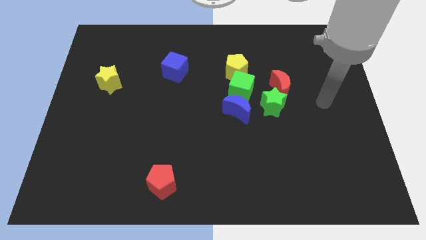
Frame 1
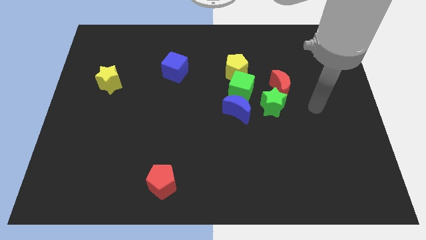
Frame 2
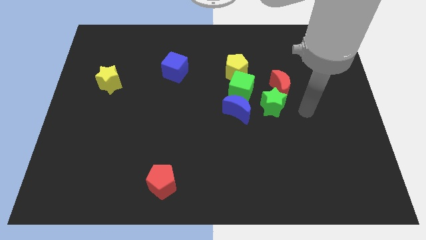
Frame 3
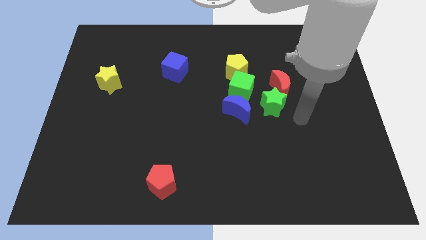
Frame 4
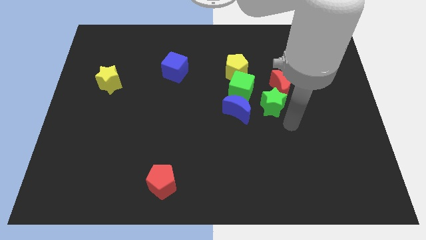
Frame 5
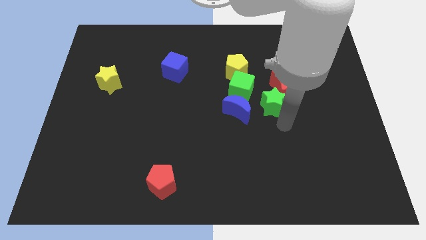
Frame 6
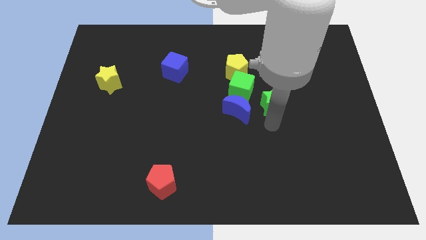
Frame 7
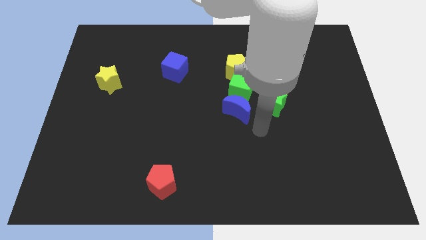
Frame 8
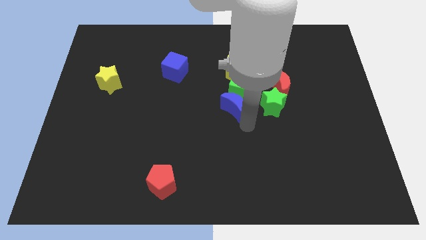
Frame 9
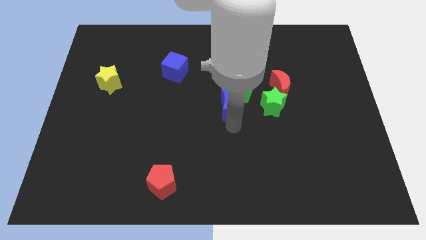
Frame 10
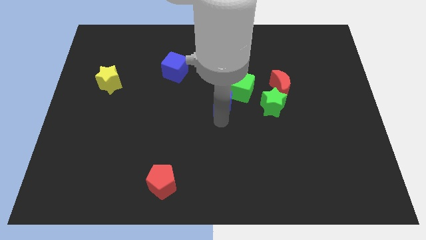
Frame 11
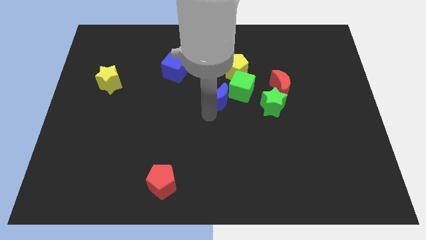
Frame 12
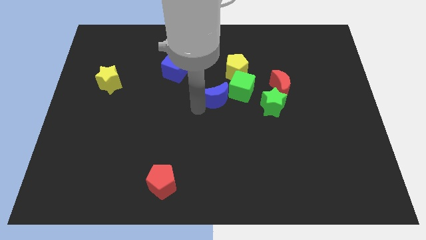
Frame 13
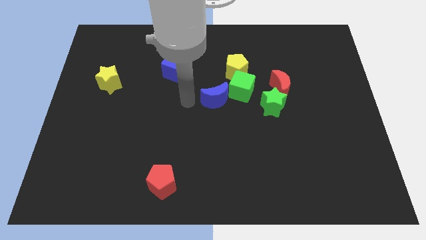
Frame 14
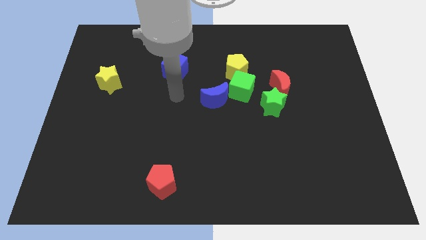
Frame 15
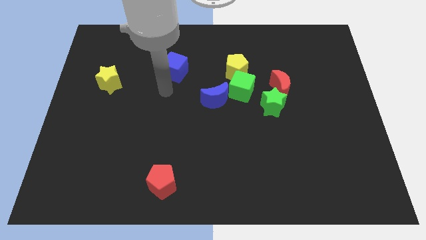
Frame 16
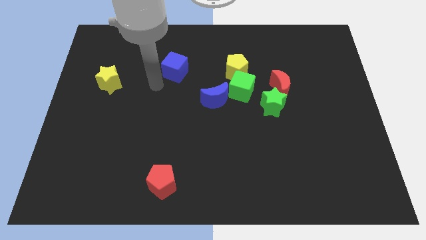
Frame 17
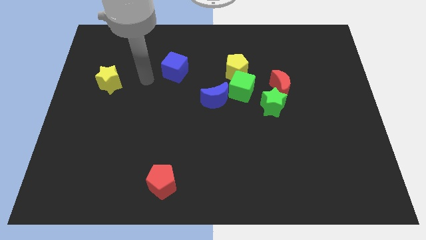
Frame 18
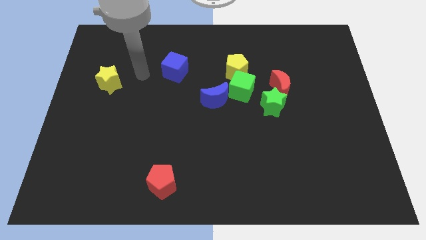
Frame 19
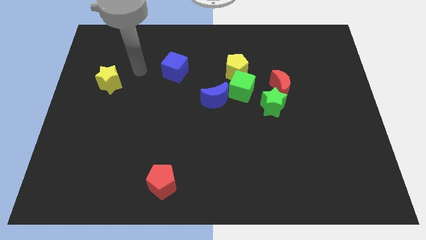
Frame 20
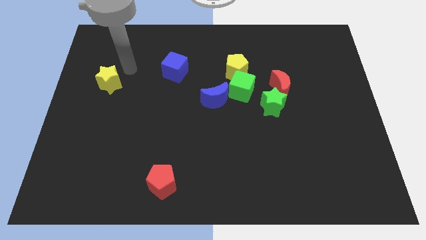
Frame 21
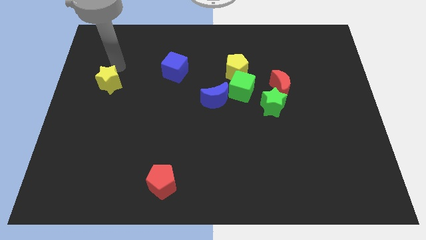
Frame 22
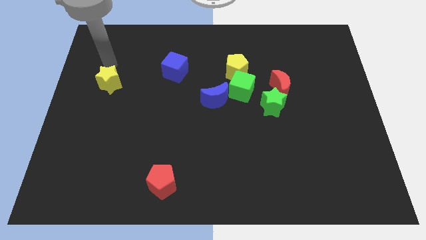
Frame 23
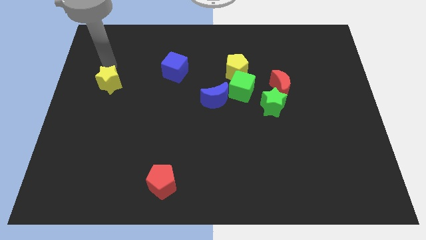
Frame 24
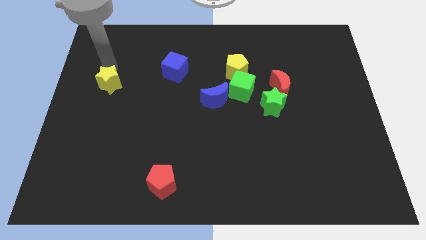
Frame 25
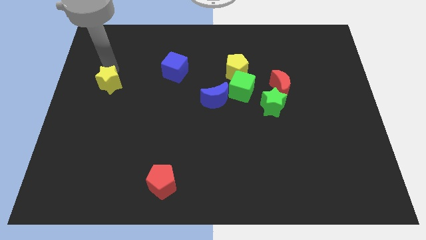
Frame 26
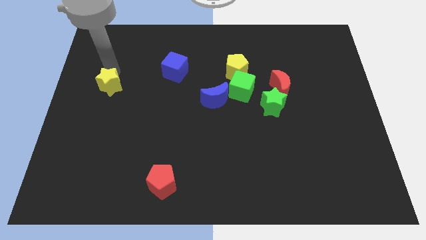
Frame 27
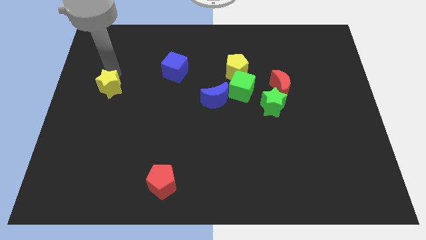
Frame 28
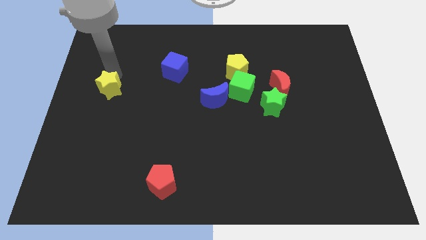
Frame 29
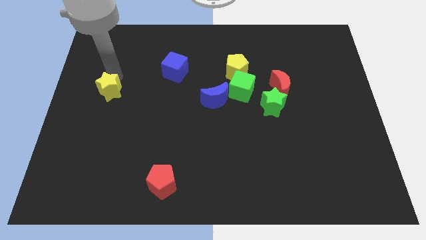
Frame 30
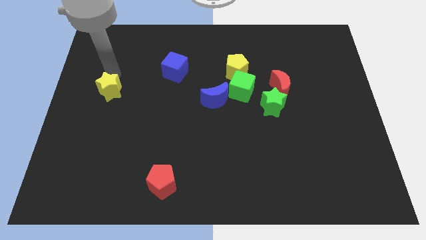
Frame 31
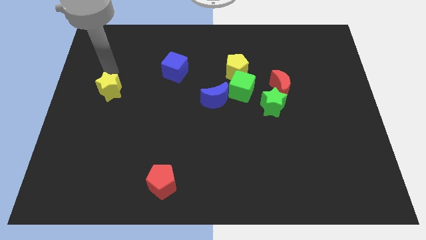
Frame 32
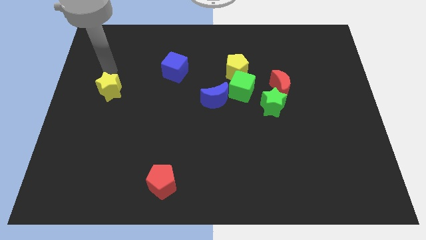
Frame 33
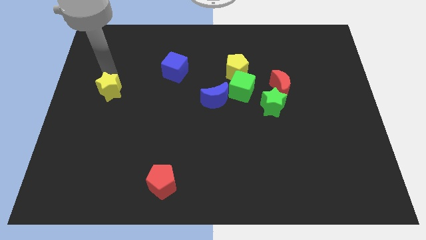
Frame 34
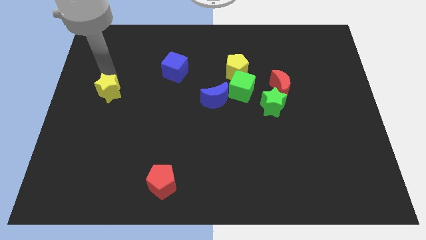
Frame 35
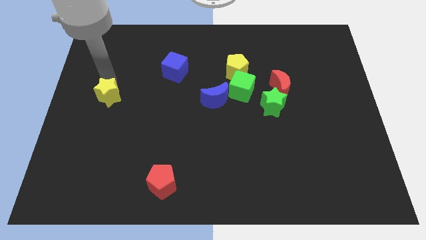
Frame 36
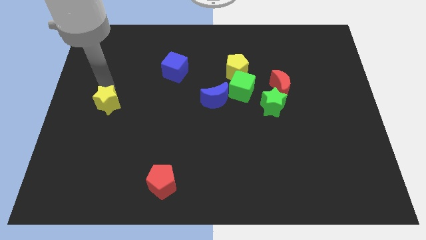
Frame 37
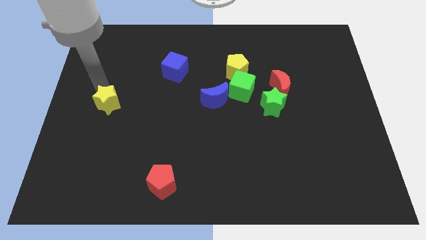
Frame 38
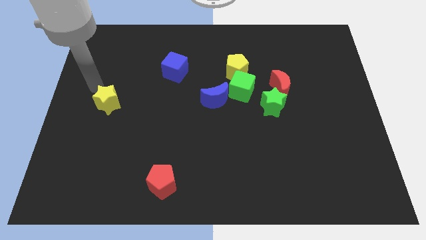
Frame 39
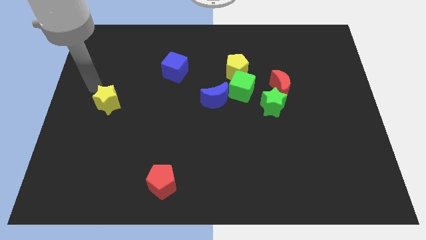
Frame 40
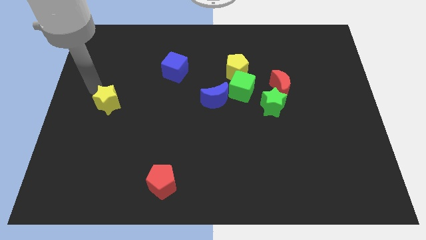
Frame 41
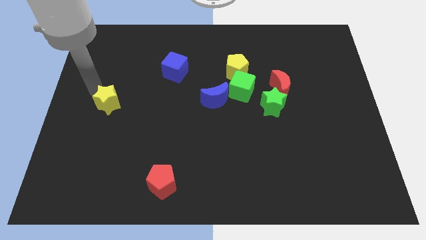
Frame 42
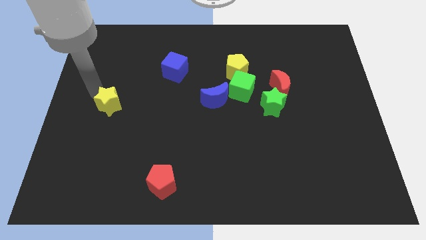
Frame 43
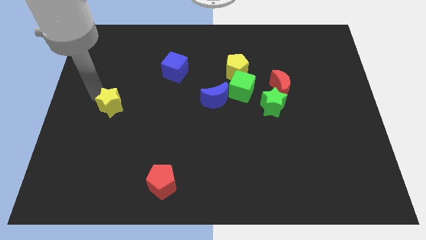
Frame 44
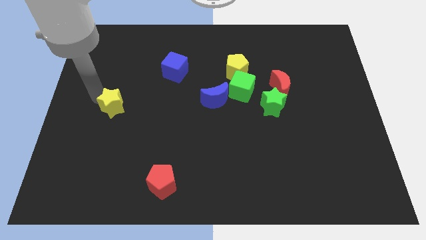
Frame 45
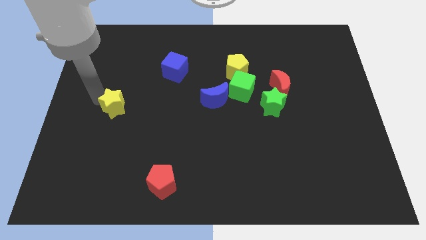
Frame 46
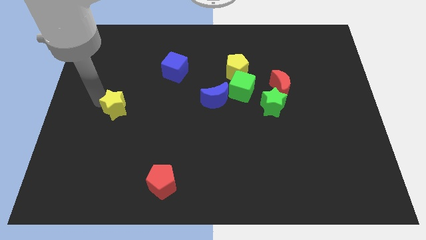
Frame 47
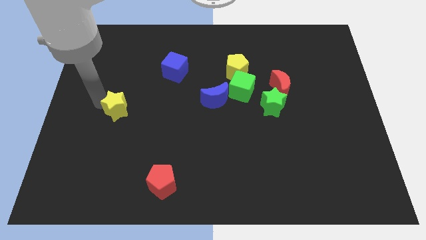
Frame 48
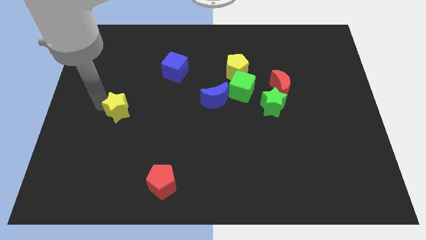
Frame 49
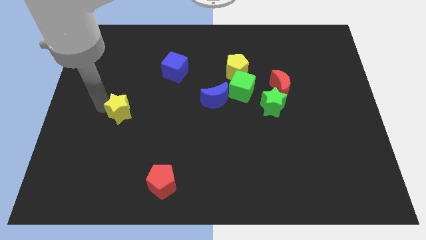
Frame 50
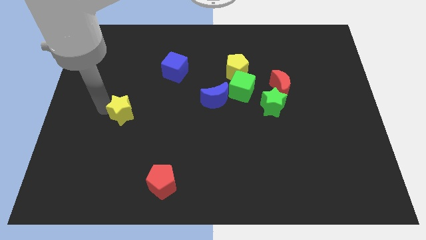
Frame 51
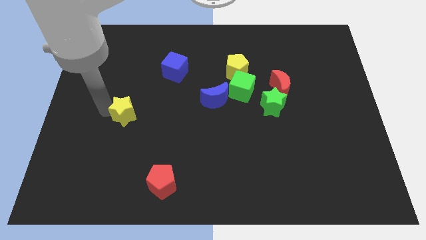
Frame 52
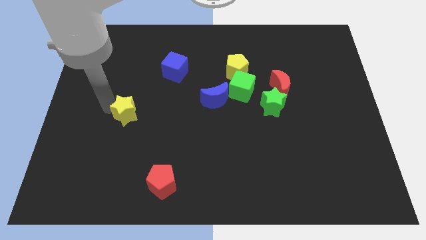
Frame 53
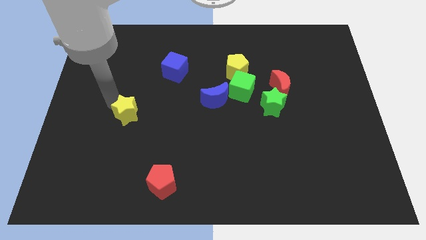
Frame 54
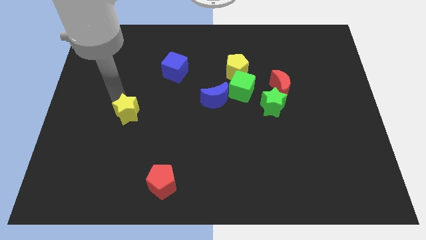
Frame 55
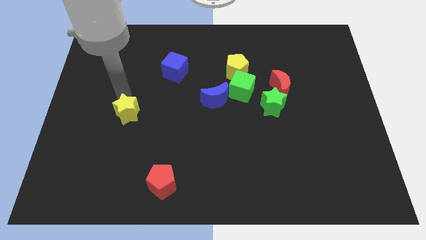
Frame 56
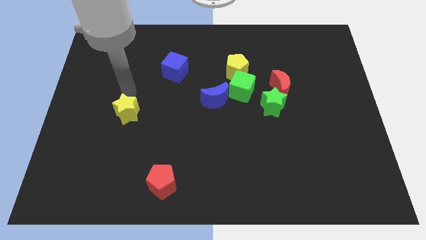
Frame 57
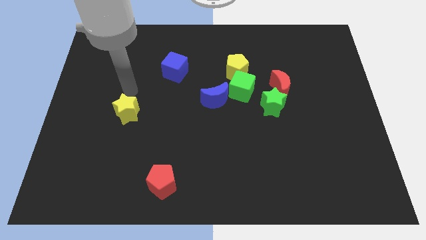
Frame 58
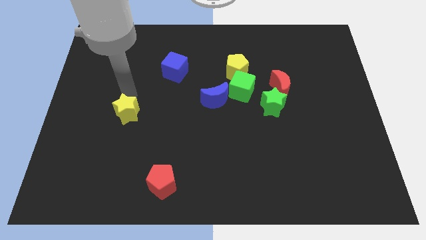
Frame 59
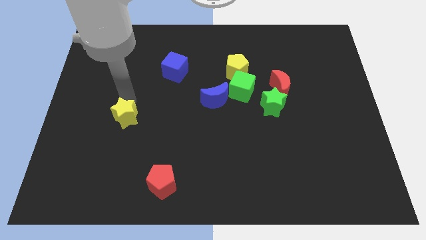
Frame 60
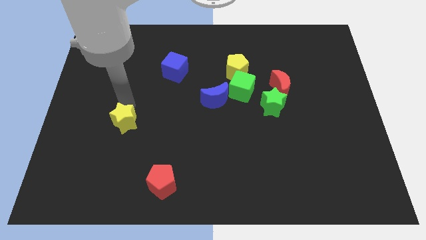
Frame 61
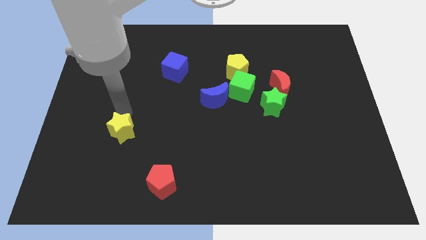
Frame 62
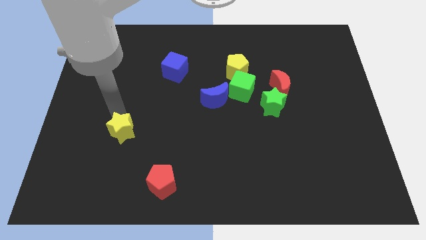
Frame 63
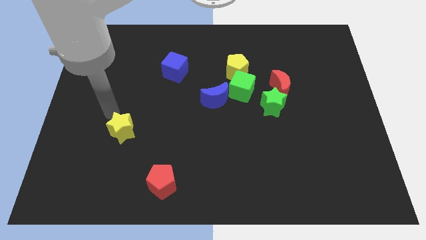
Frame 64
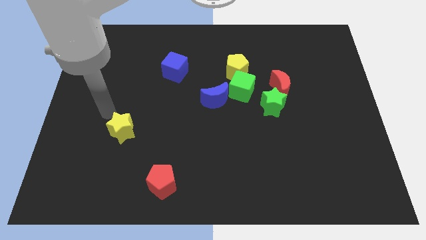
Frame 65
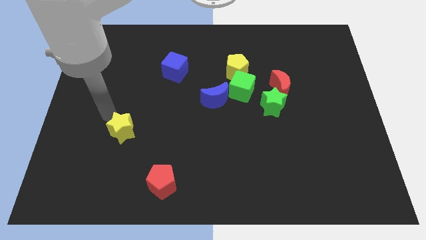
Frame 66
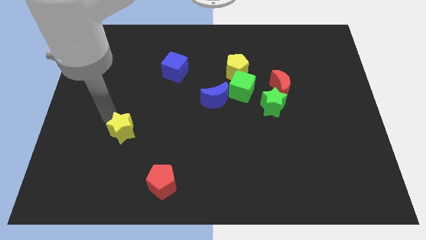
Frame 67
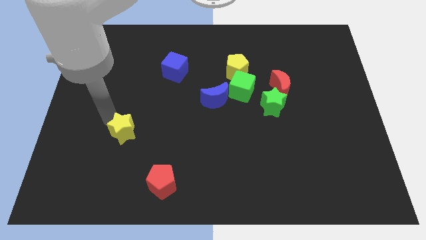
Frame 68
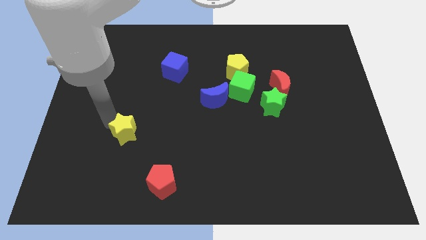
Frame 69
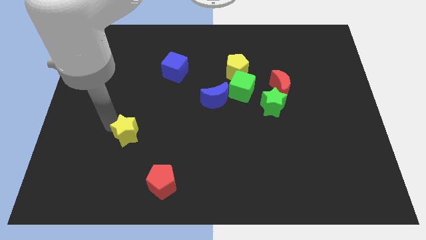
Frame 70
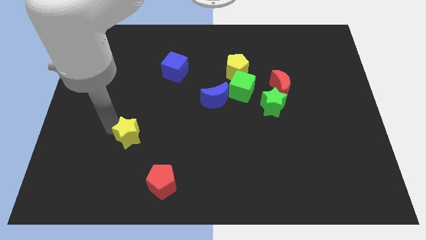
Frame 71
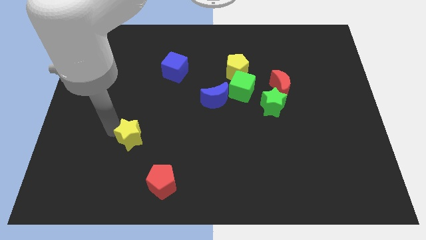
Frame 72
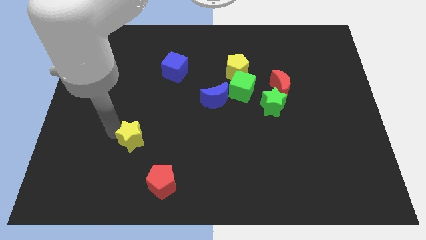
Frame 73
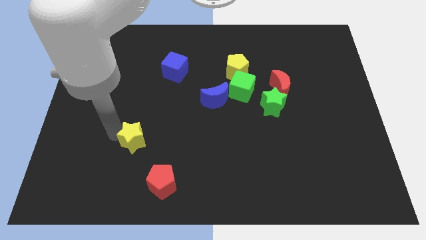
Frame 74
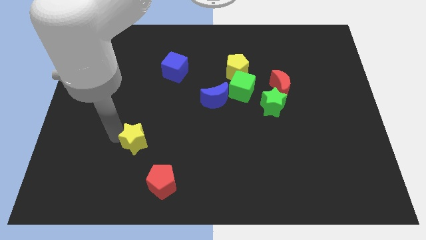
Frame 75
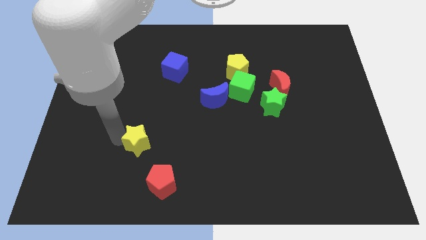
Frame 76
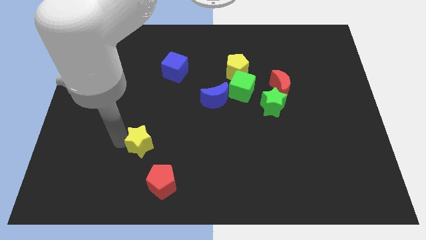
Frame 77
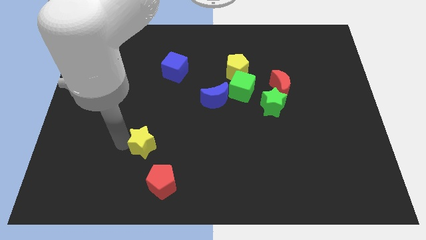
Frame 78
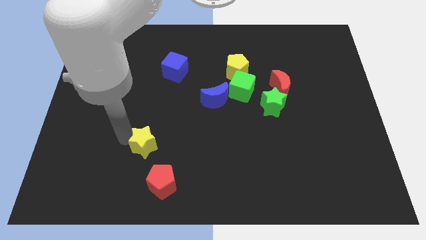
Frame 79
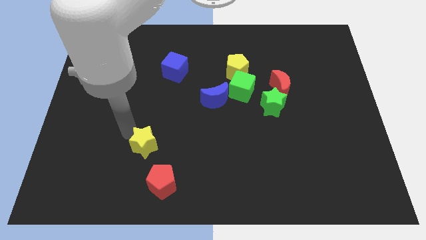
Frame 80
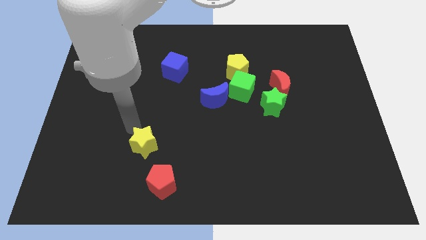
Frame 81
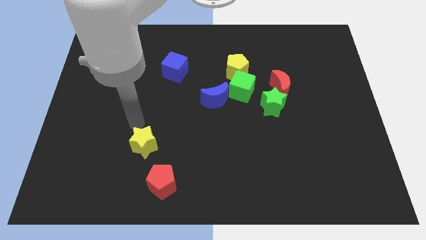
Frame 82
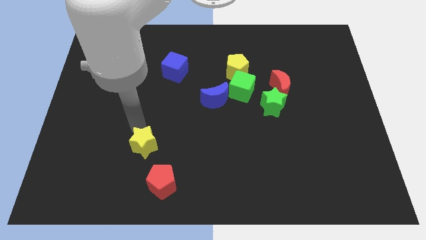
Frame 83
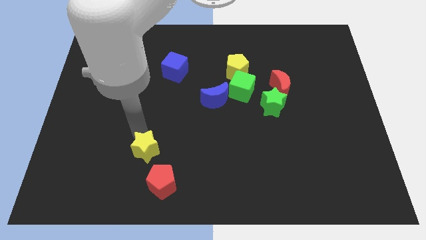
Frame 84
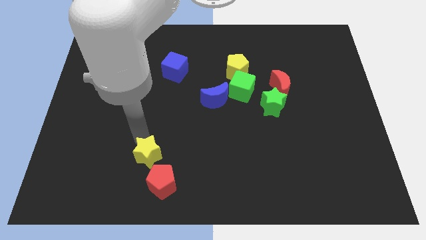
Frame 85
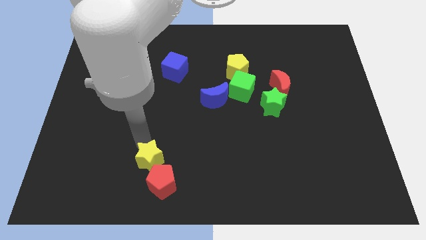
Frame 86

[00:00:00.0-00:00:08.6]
push the yellow star close to the red pentagon
